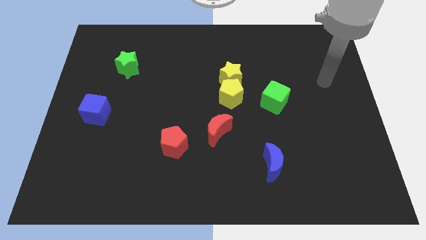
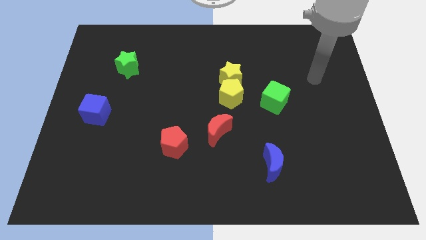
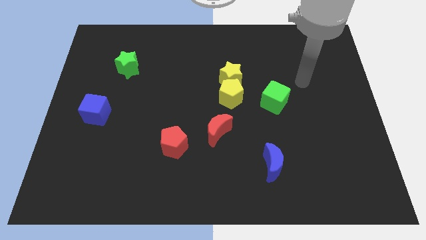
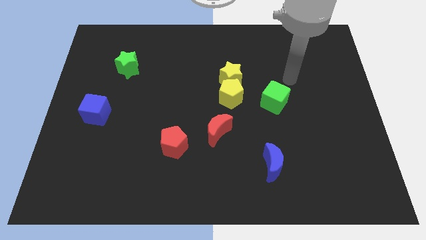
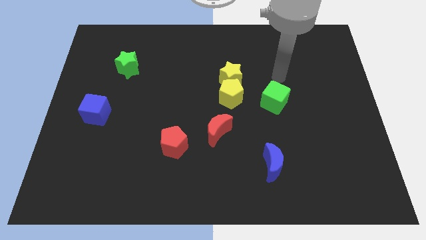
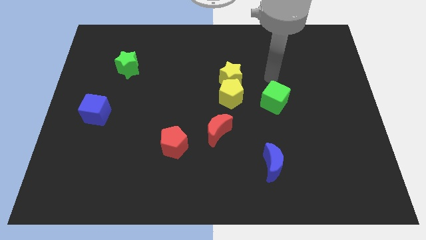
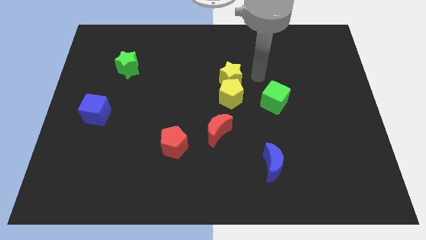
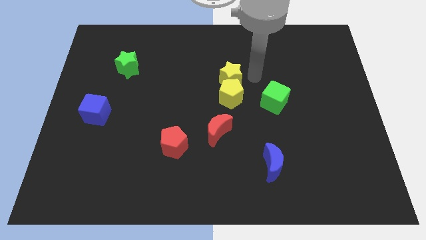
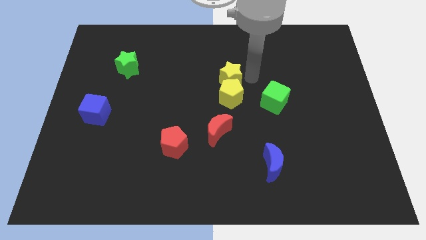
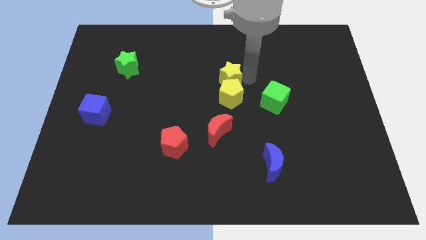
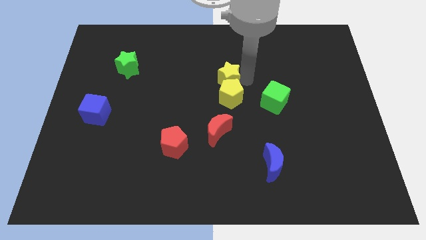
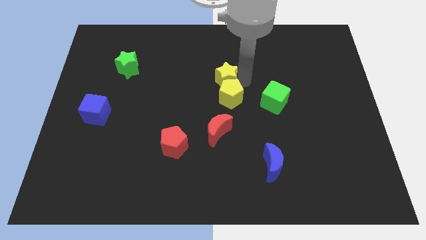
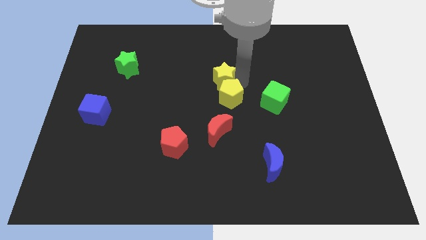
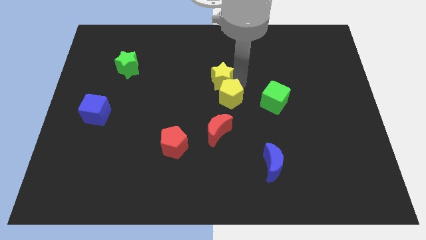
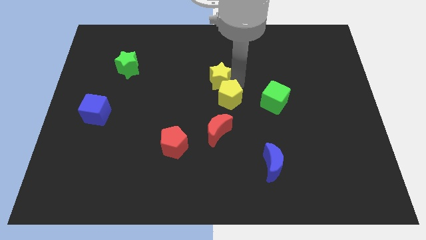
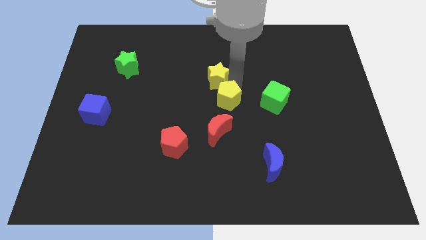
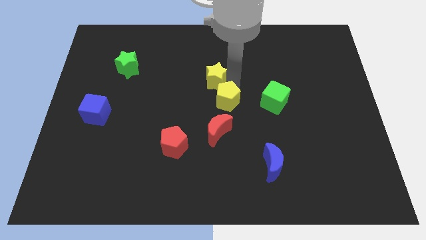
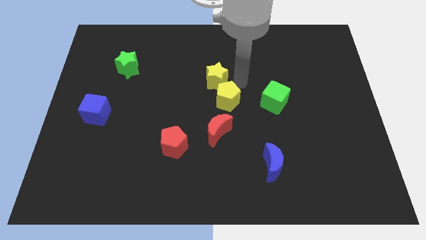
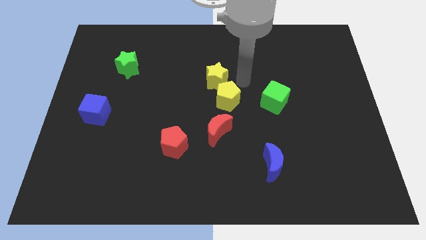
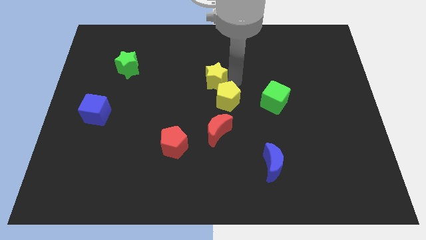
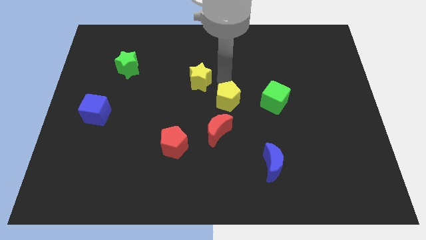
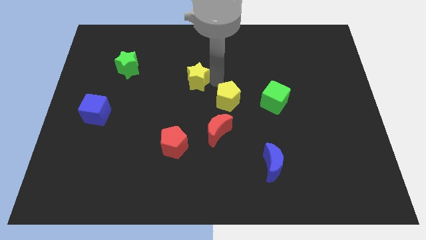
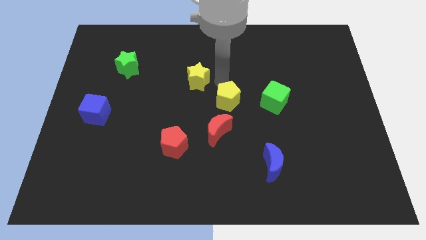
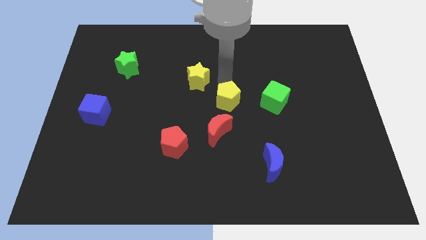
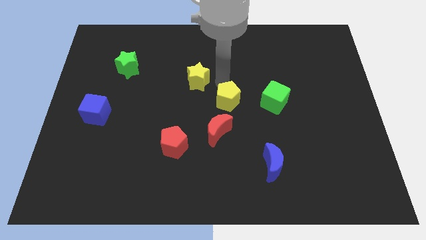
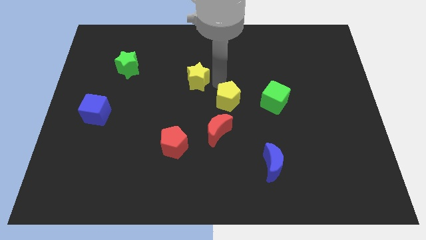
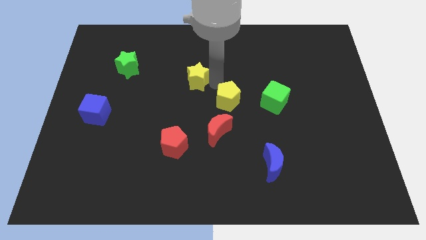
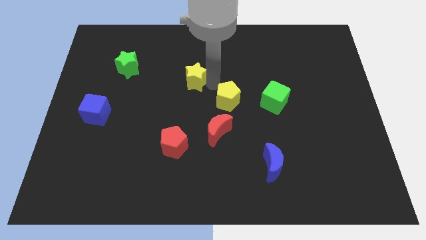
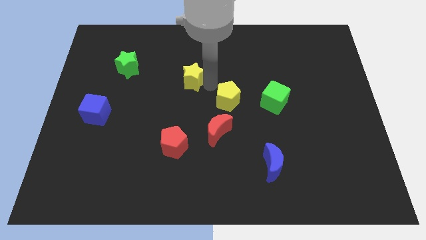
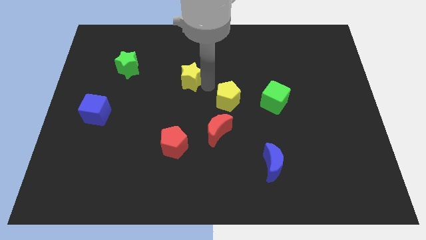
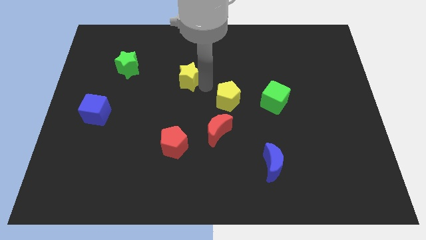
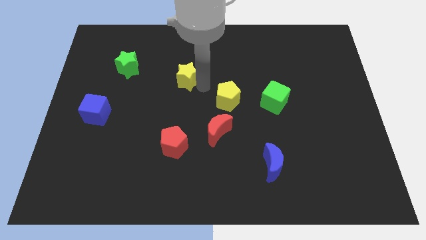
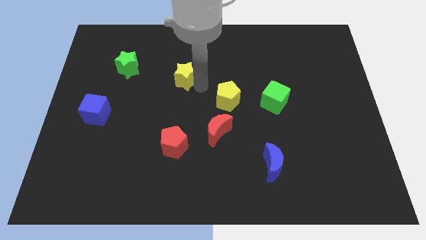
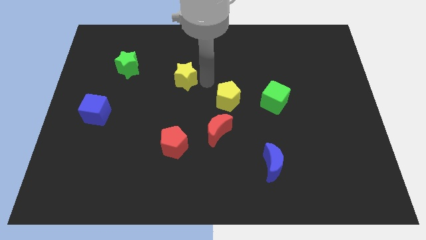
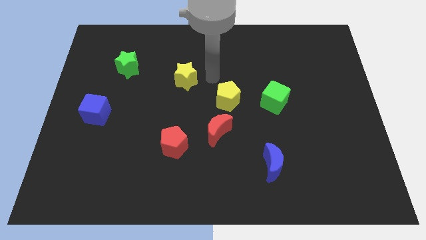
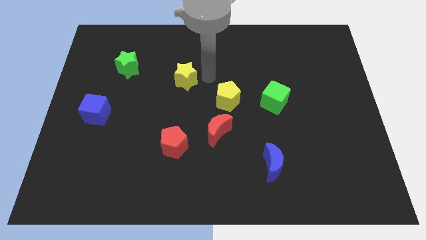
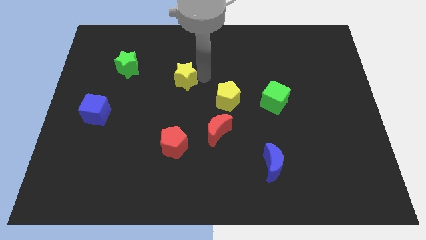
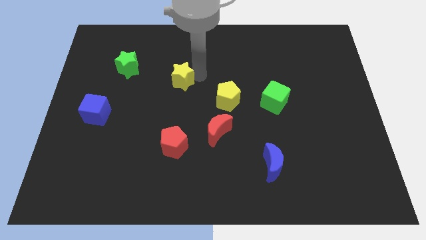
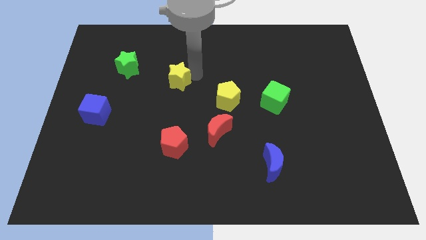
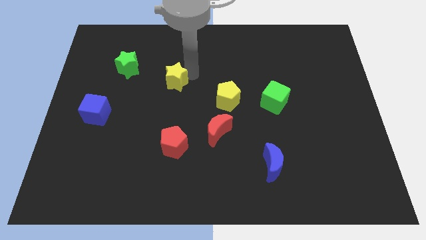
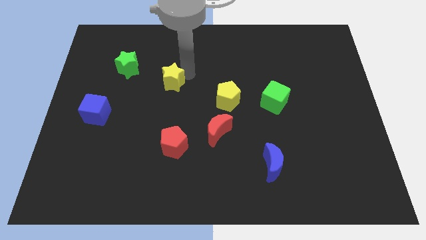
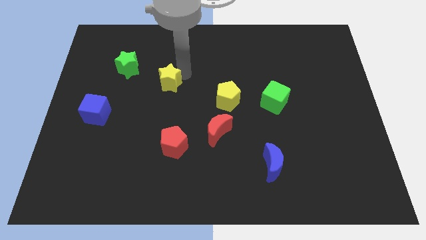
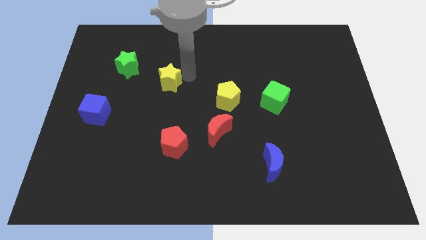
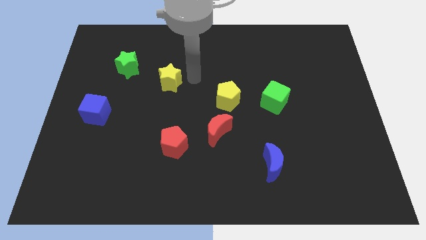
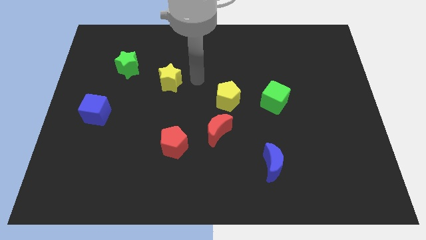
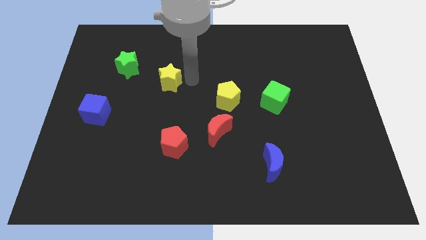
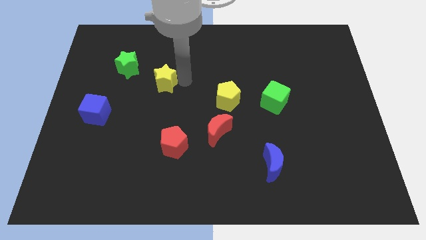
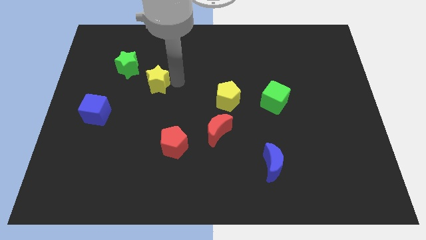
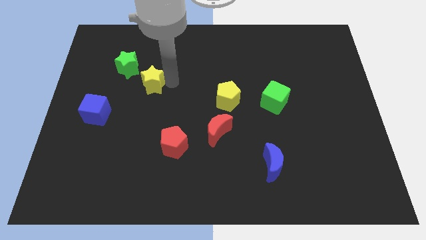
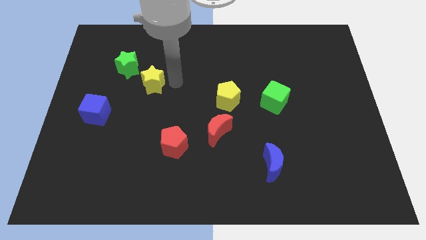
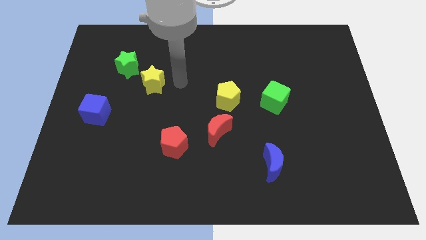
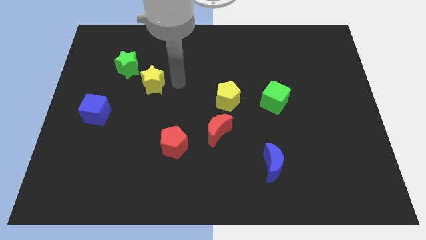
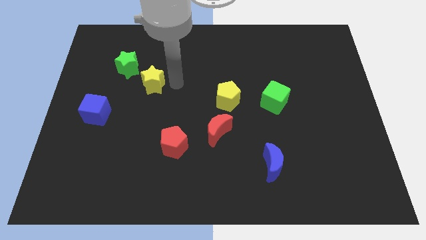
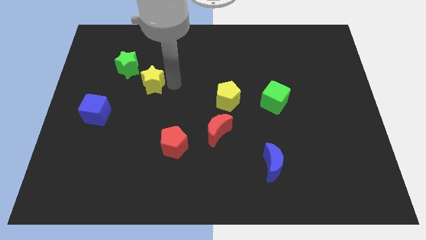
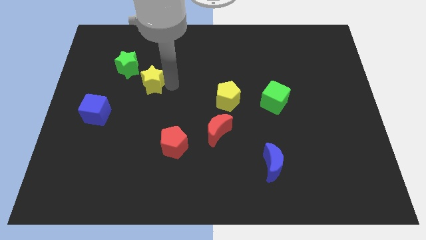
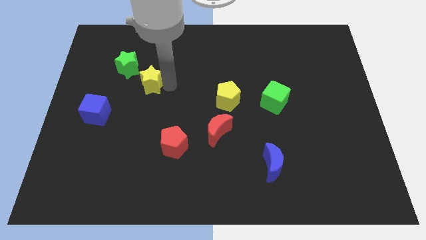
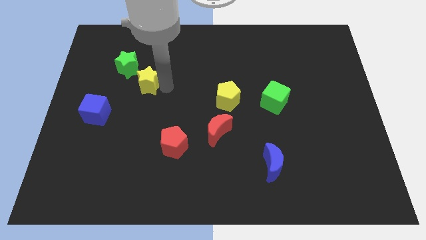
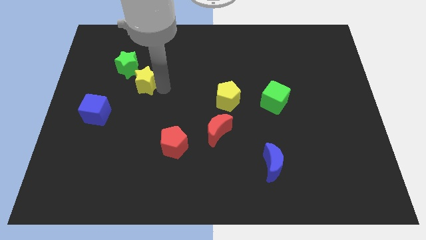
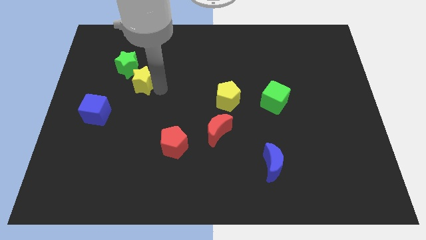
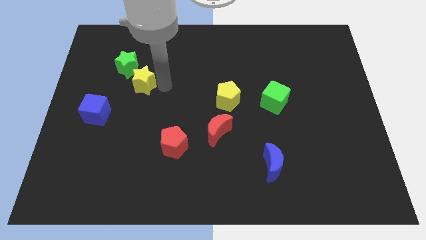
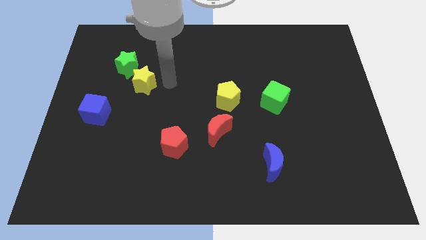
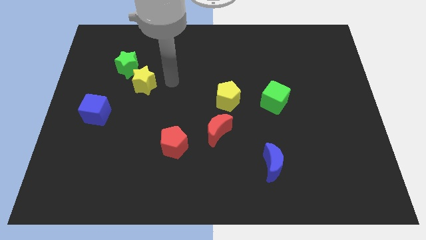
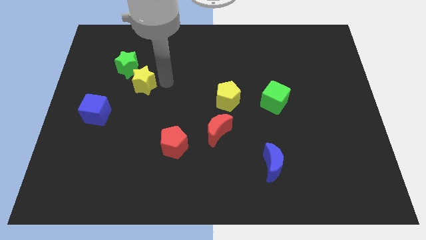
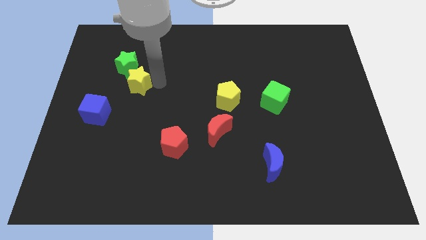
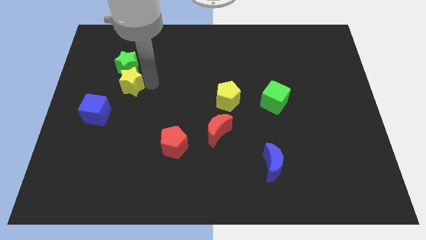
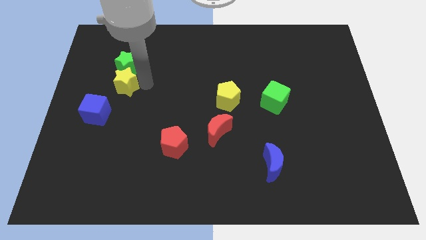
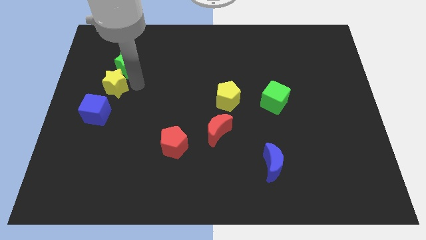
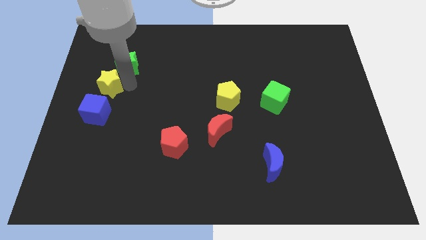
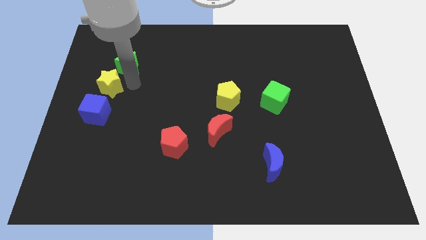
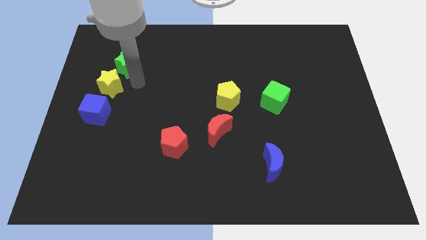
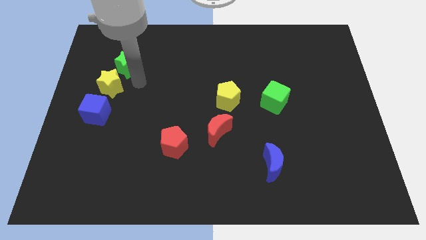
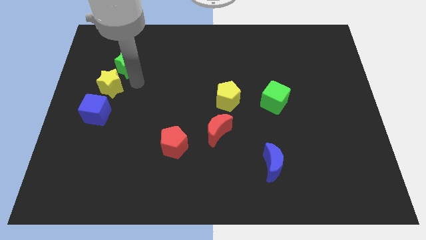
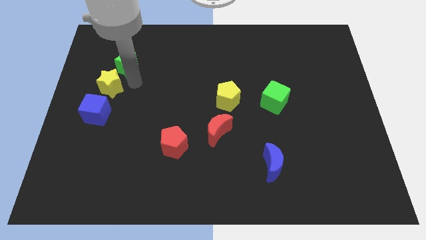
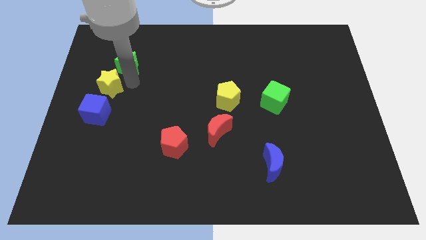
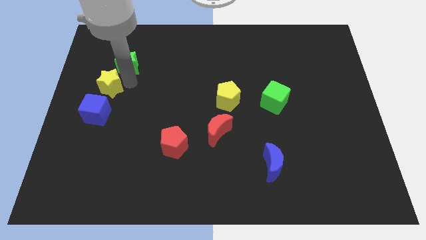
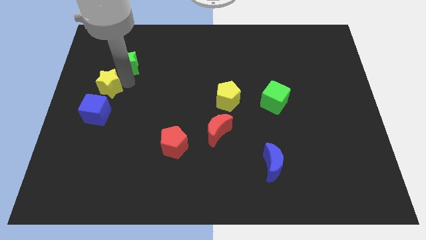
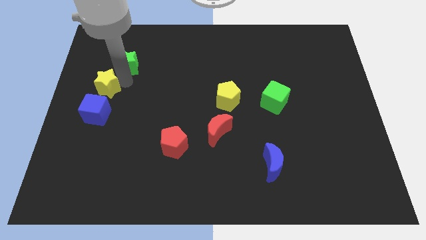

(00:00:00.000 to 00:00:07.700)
slide the yellow star to the left side
